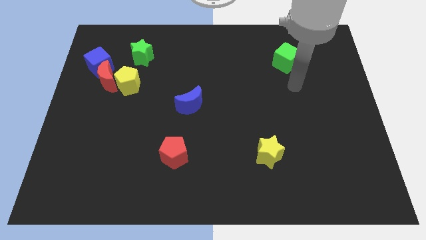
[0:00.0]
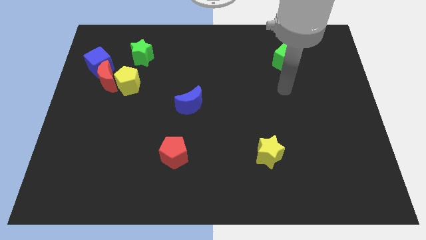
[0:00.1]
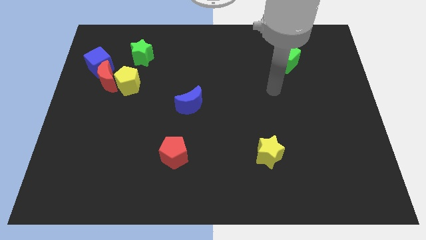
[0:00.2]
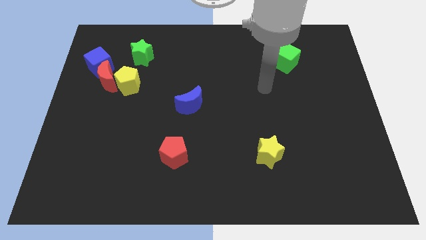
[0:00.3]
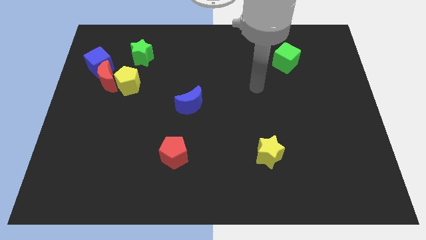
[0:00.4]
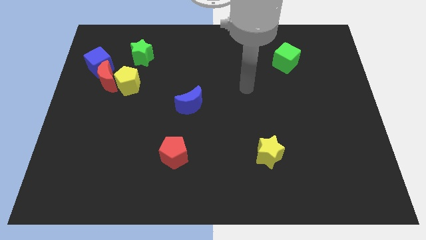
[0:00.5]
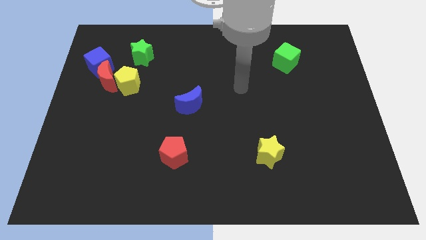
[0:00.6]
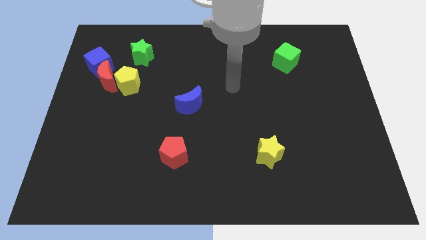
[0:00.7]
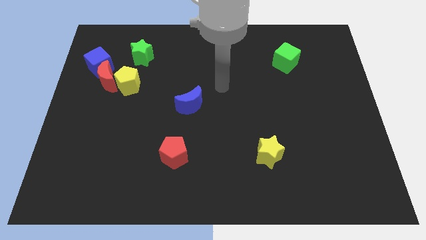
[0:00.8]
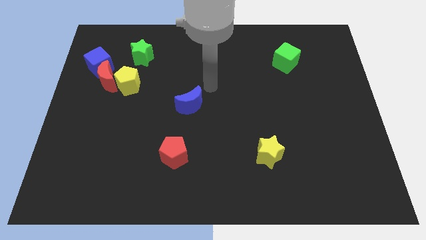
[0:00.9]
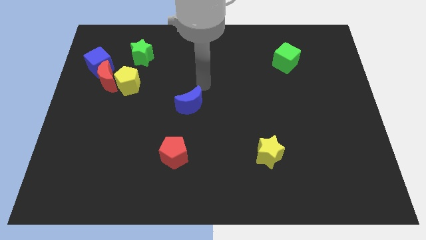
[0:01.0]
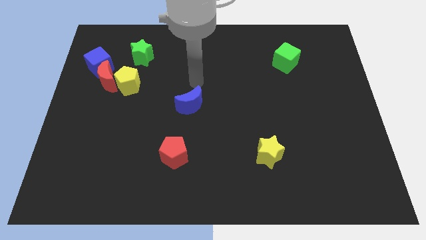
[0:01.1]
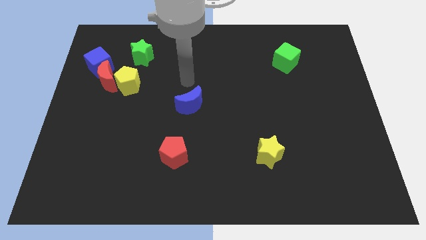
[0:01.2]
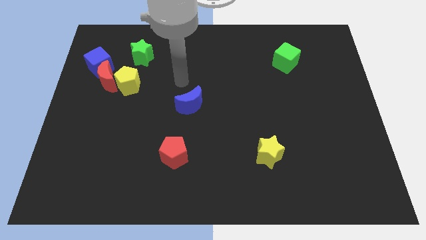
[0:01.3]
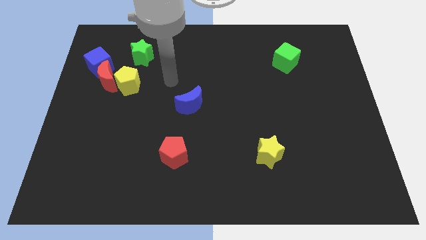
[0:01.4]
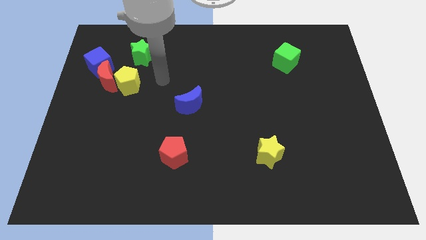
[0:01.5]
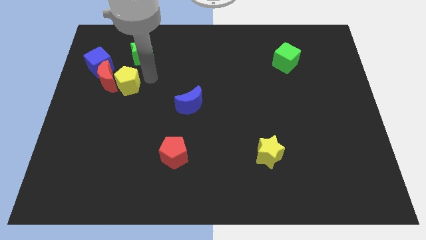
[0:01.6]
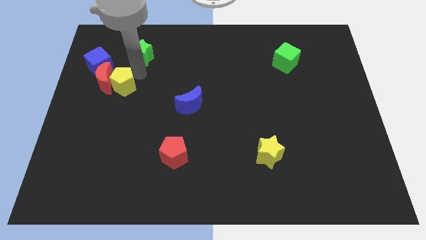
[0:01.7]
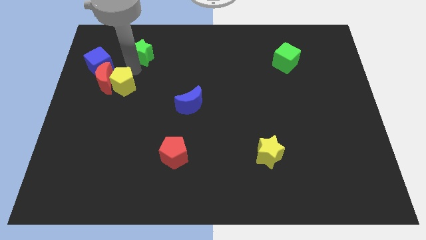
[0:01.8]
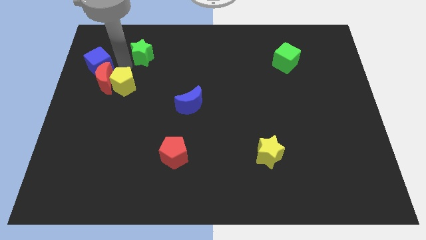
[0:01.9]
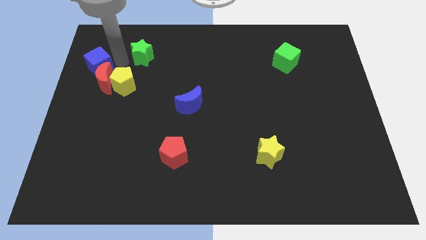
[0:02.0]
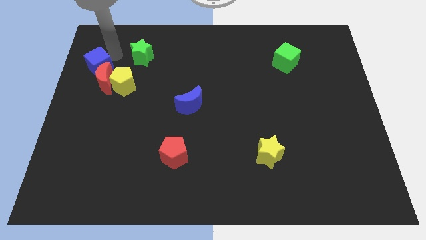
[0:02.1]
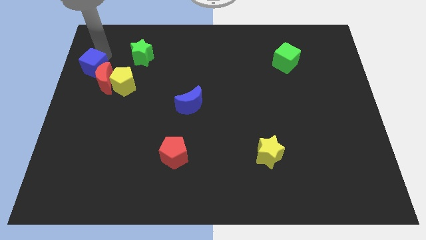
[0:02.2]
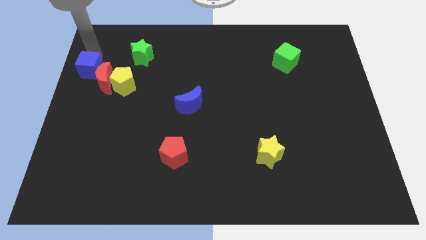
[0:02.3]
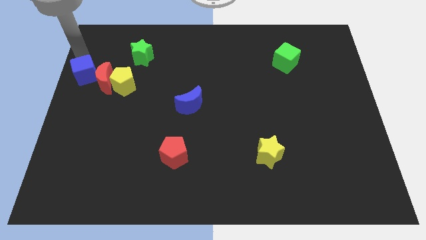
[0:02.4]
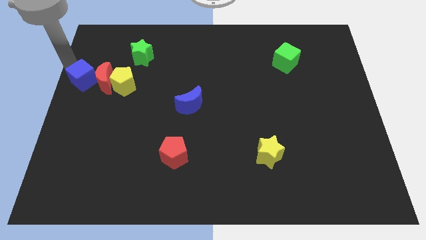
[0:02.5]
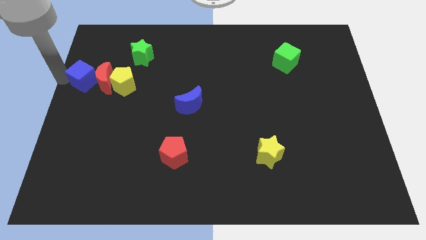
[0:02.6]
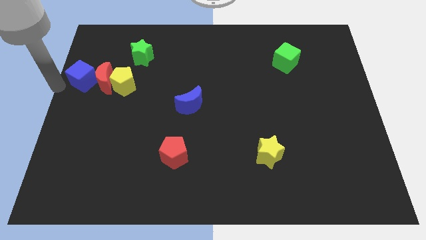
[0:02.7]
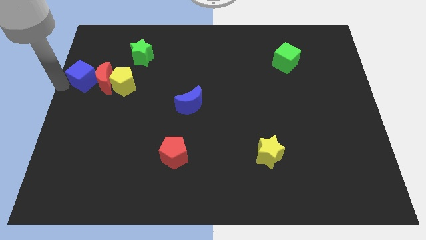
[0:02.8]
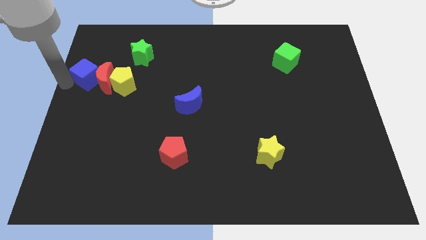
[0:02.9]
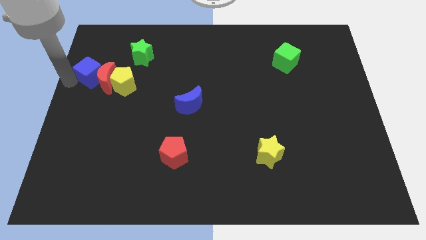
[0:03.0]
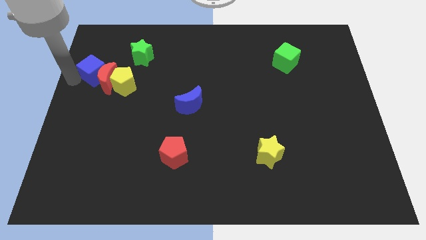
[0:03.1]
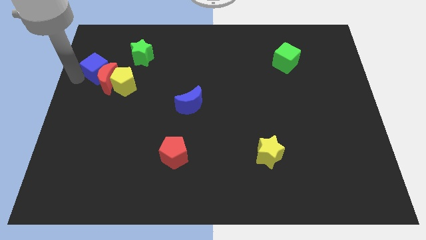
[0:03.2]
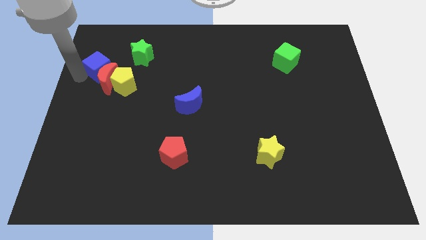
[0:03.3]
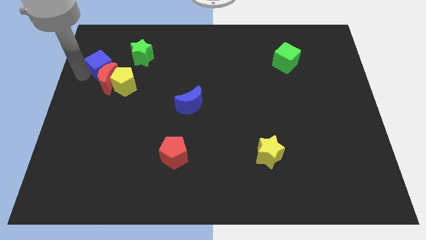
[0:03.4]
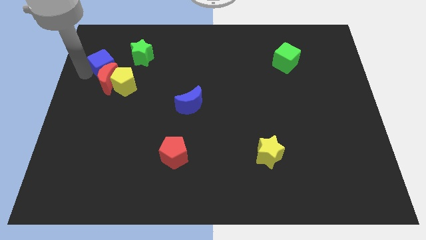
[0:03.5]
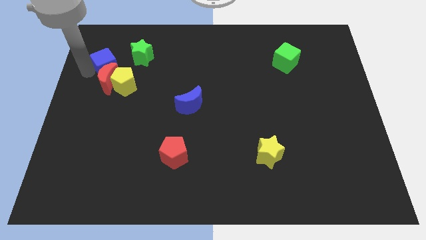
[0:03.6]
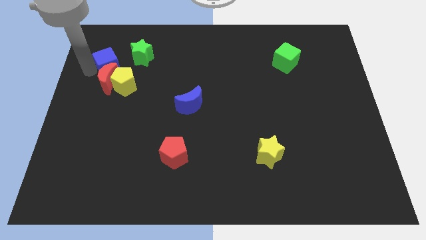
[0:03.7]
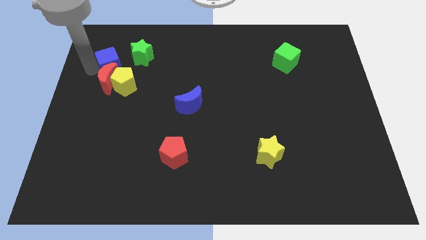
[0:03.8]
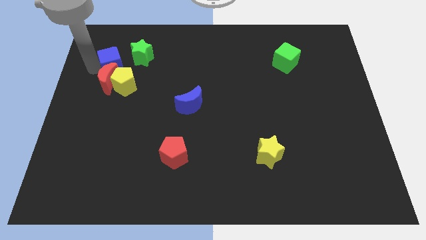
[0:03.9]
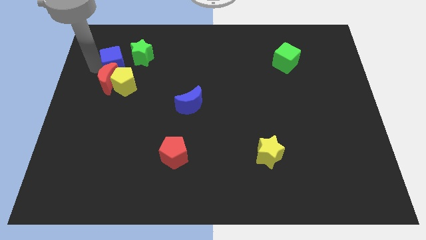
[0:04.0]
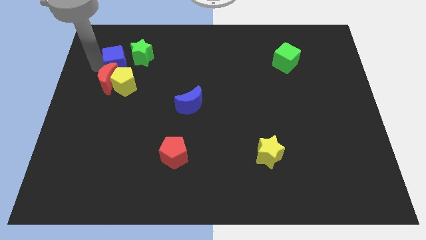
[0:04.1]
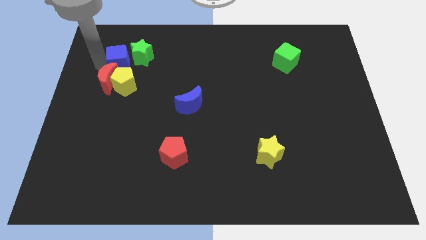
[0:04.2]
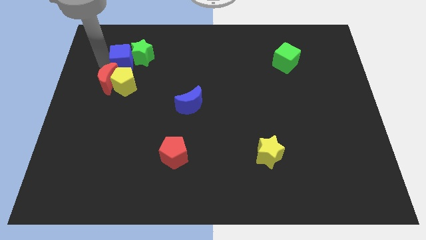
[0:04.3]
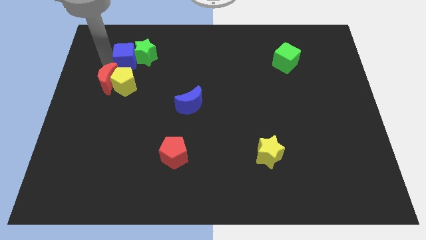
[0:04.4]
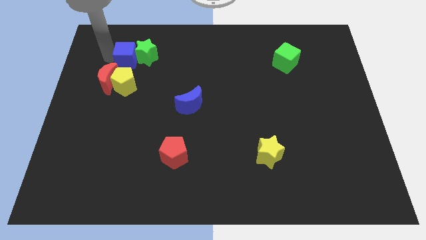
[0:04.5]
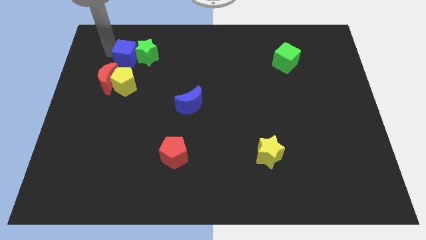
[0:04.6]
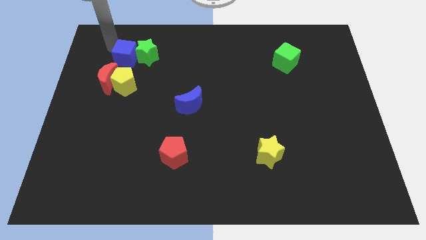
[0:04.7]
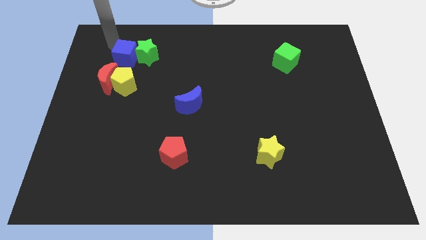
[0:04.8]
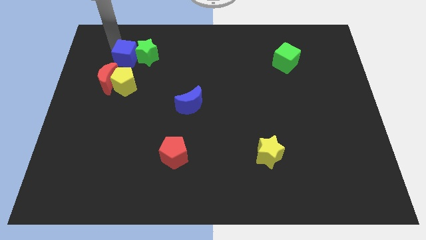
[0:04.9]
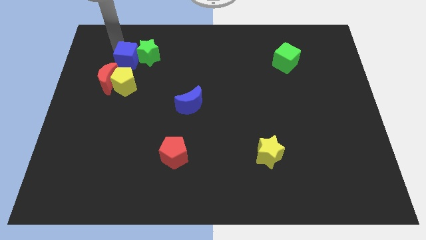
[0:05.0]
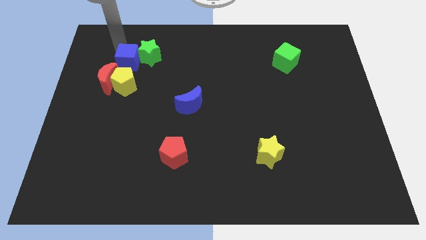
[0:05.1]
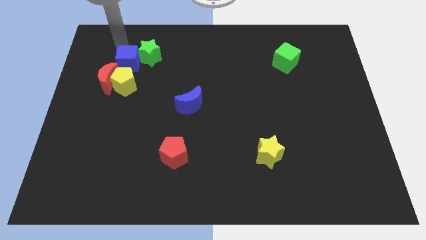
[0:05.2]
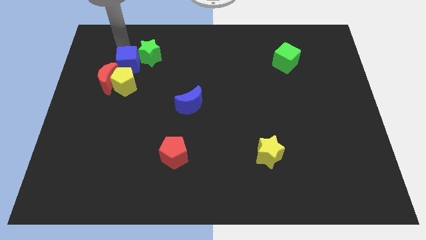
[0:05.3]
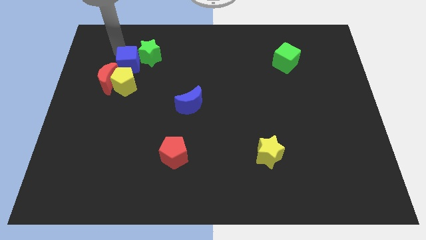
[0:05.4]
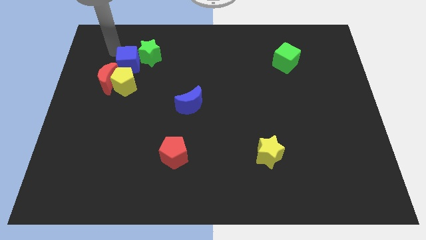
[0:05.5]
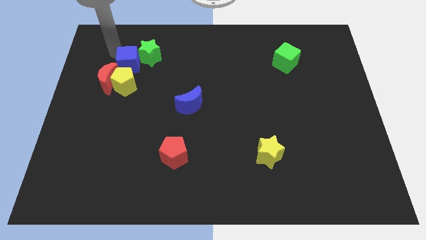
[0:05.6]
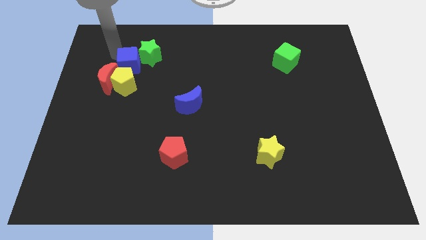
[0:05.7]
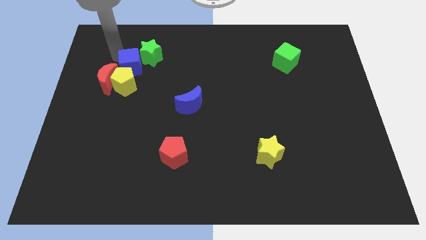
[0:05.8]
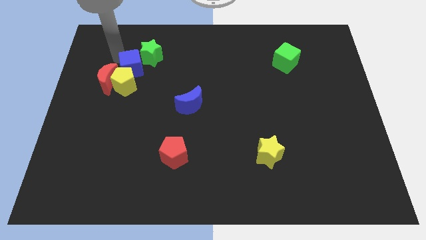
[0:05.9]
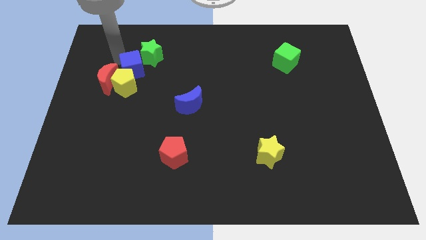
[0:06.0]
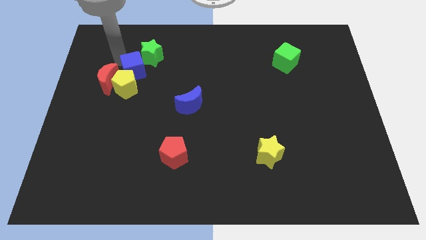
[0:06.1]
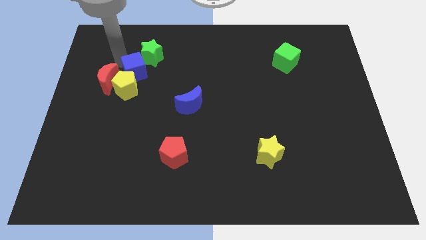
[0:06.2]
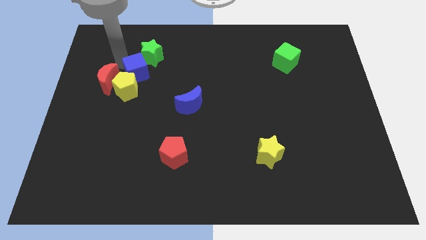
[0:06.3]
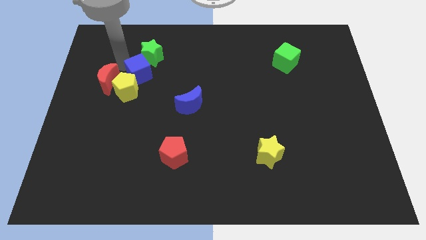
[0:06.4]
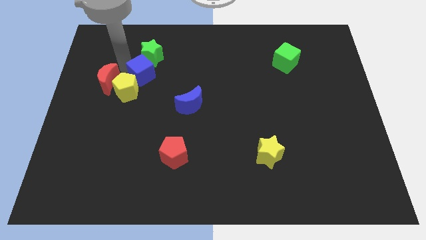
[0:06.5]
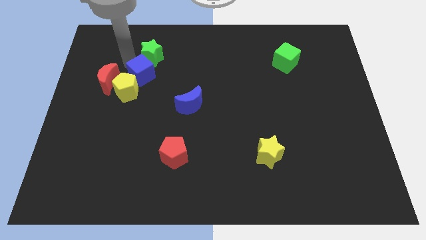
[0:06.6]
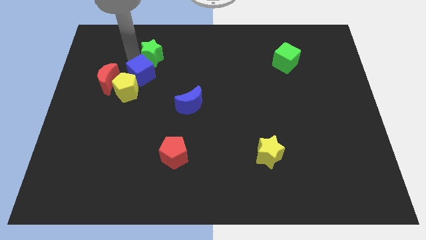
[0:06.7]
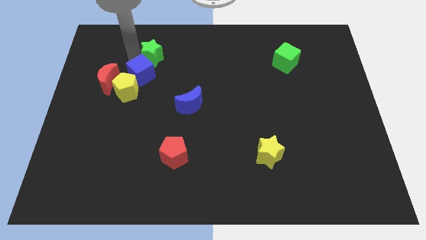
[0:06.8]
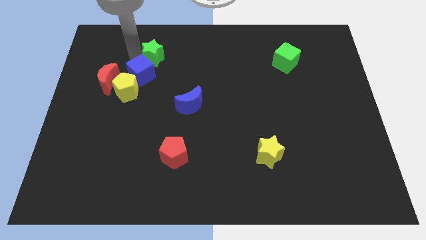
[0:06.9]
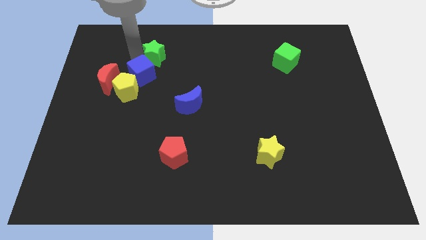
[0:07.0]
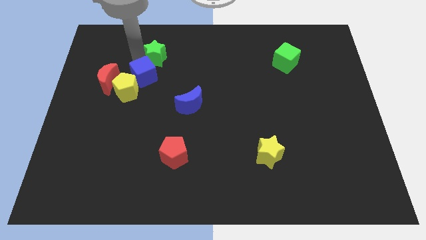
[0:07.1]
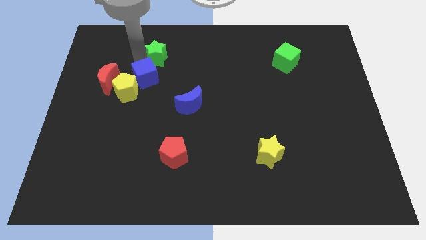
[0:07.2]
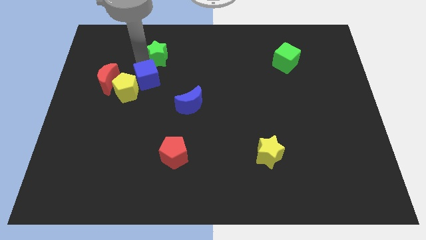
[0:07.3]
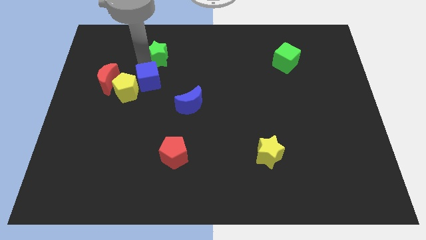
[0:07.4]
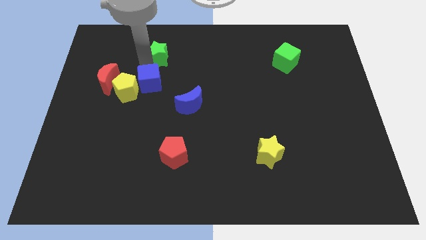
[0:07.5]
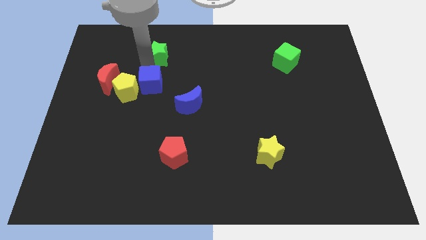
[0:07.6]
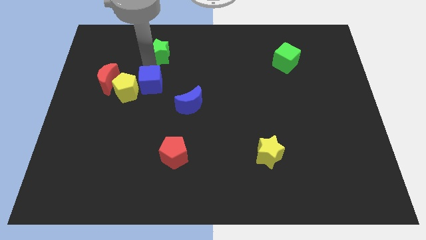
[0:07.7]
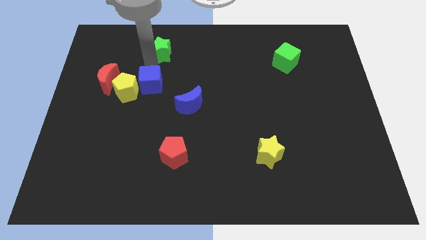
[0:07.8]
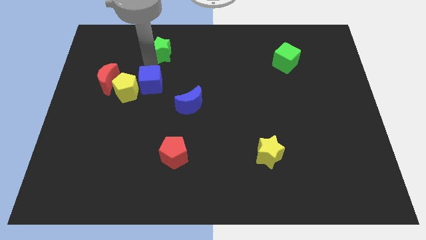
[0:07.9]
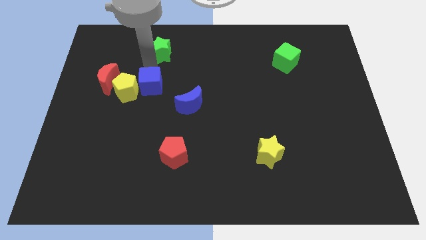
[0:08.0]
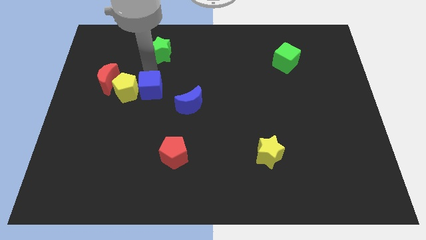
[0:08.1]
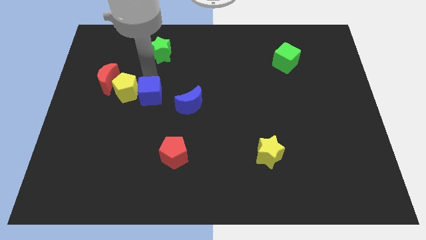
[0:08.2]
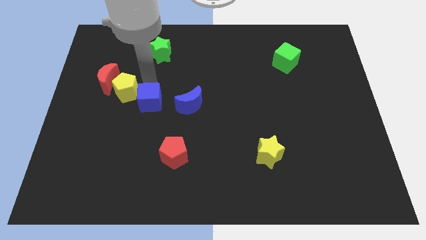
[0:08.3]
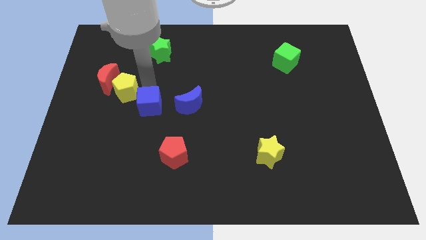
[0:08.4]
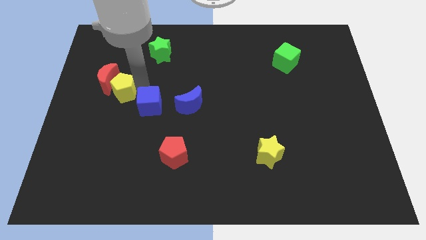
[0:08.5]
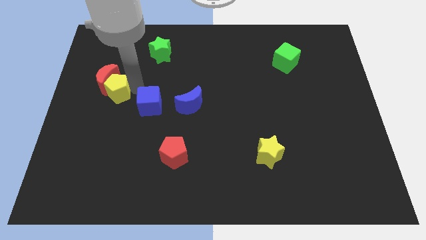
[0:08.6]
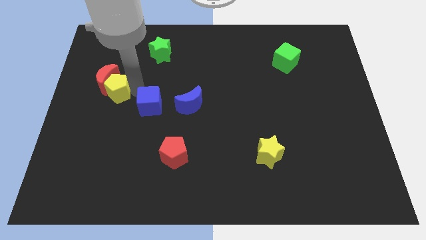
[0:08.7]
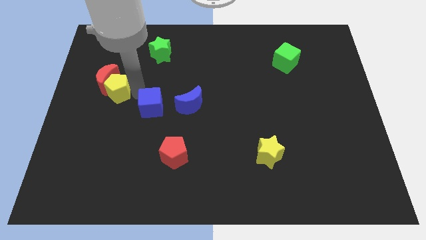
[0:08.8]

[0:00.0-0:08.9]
move the blue cube downwards and to the right
